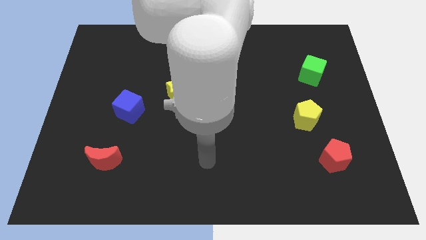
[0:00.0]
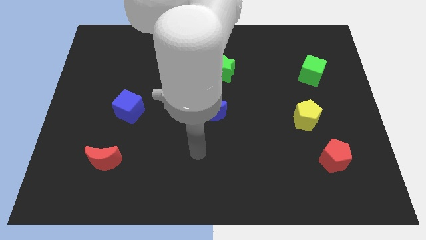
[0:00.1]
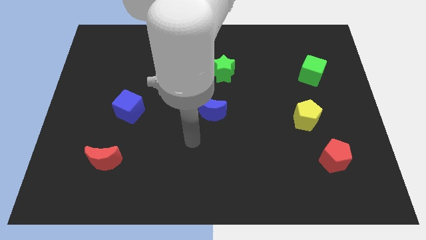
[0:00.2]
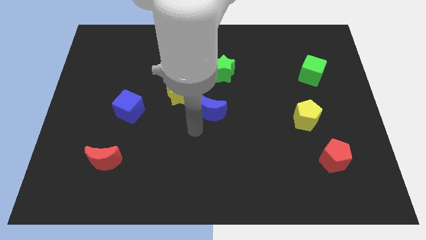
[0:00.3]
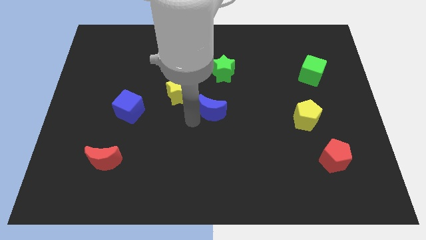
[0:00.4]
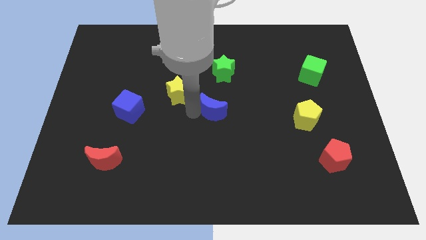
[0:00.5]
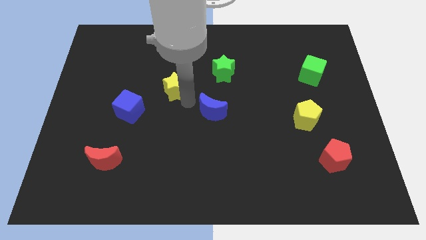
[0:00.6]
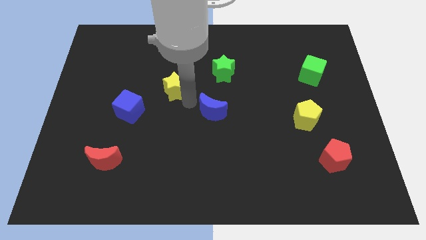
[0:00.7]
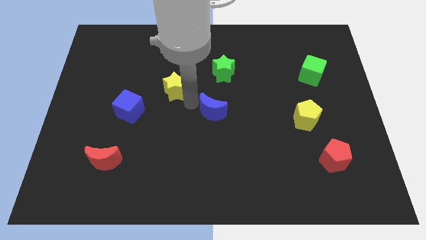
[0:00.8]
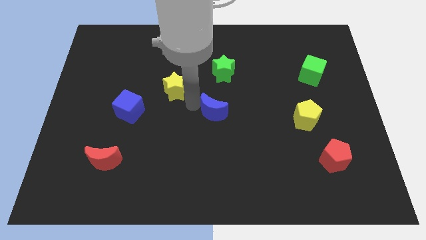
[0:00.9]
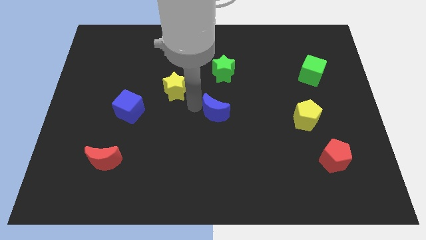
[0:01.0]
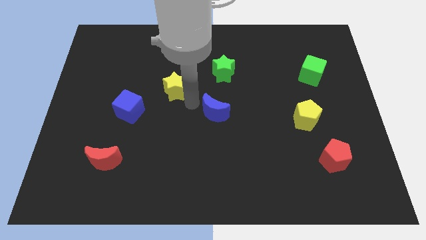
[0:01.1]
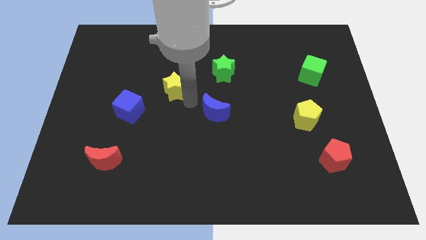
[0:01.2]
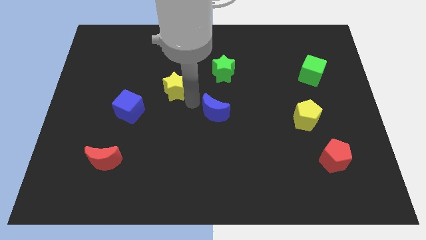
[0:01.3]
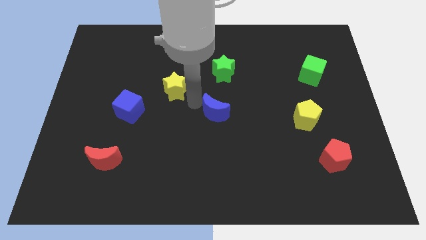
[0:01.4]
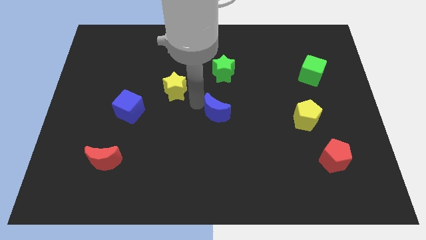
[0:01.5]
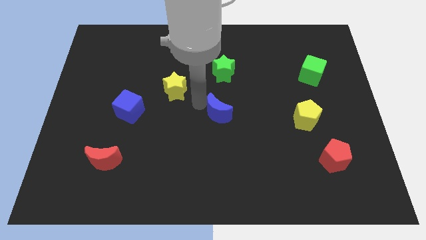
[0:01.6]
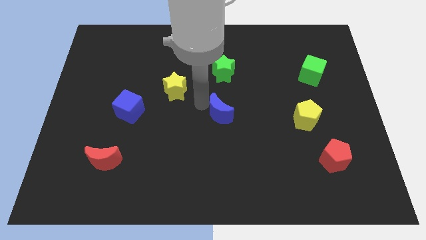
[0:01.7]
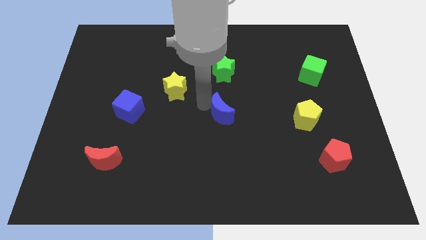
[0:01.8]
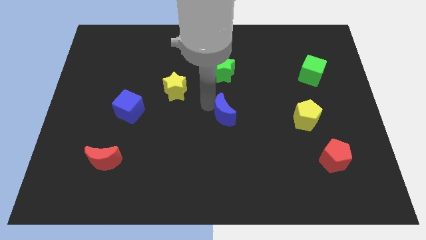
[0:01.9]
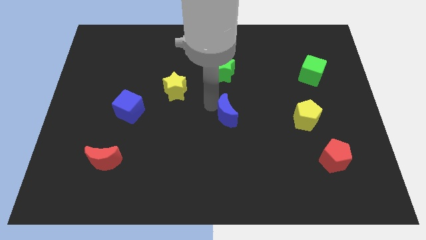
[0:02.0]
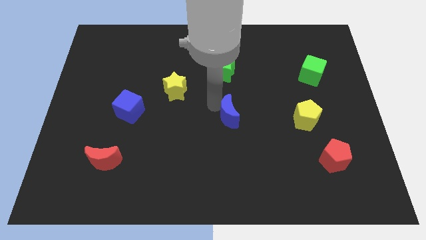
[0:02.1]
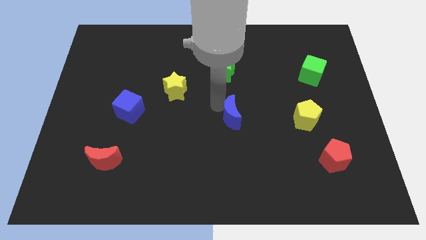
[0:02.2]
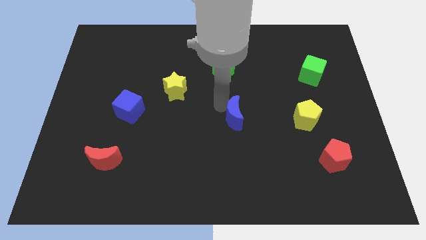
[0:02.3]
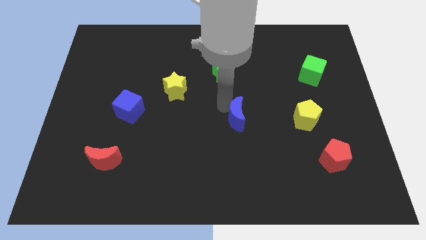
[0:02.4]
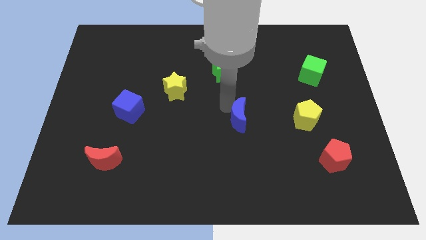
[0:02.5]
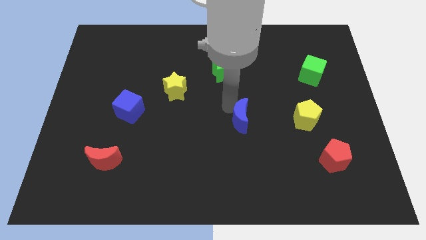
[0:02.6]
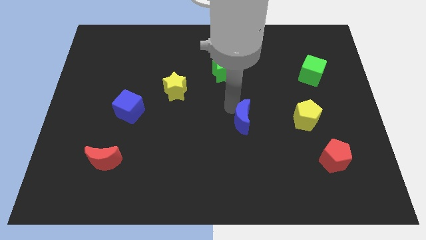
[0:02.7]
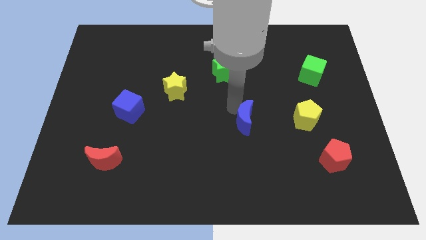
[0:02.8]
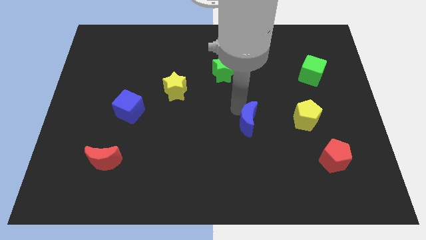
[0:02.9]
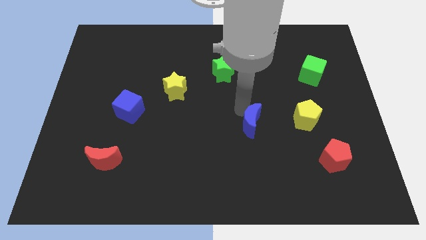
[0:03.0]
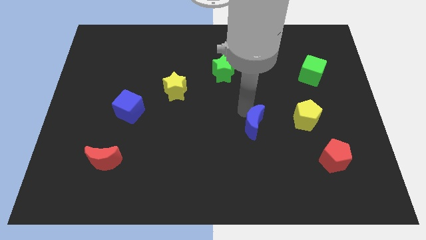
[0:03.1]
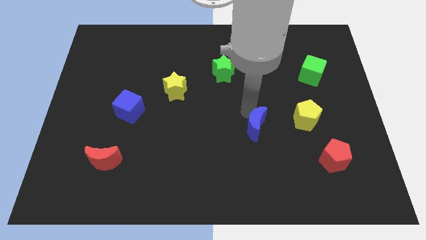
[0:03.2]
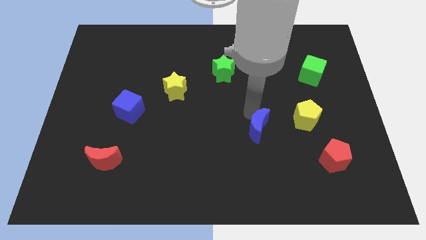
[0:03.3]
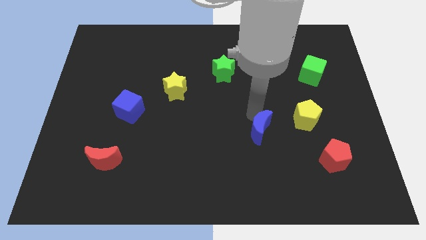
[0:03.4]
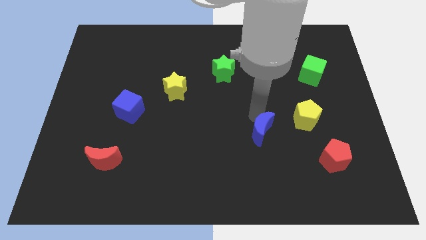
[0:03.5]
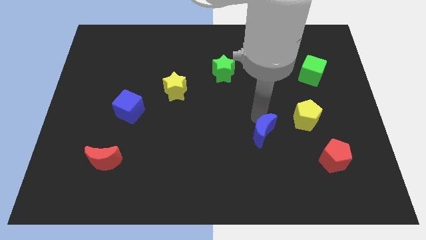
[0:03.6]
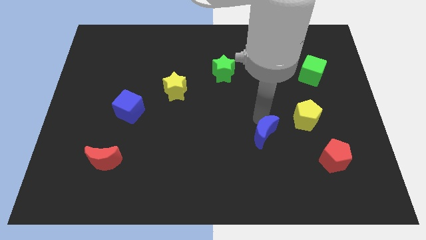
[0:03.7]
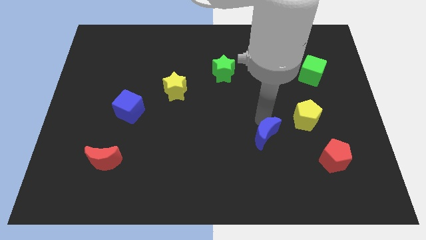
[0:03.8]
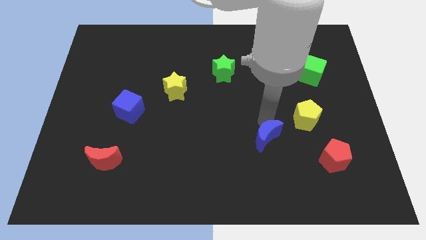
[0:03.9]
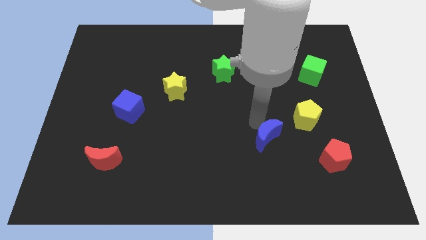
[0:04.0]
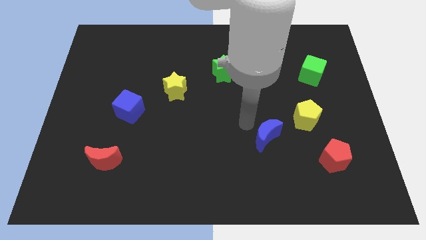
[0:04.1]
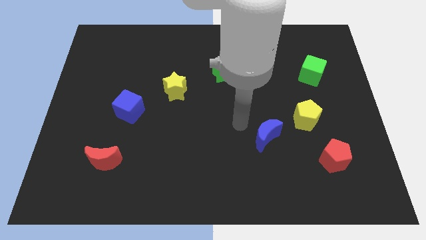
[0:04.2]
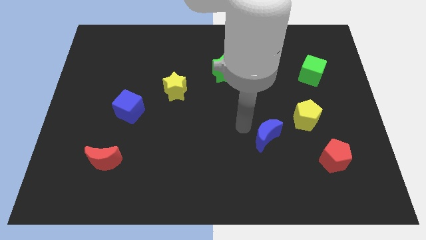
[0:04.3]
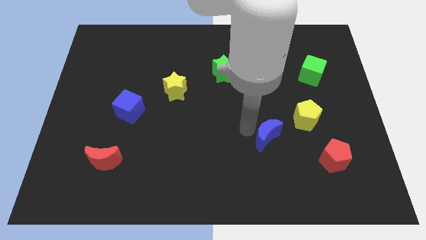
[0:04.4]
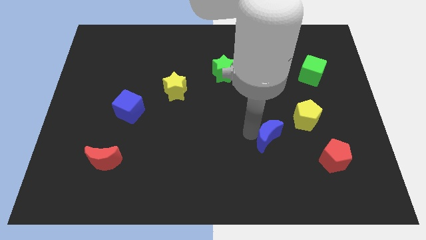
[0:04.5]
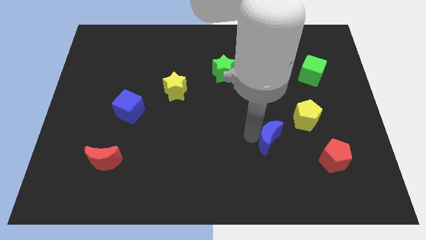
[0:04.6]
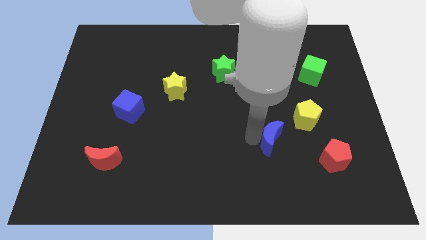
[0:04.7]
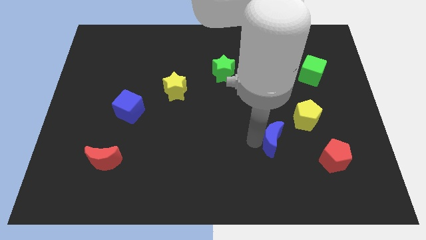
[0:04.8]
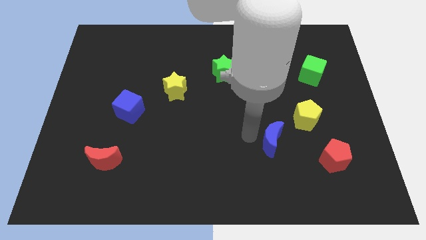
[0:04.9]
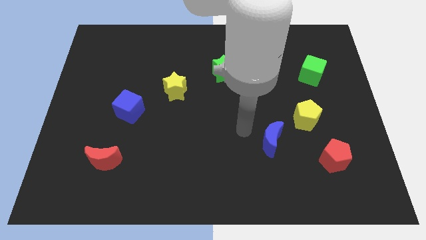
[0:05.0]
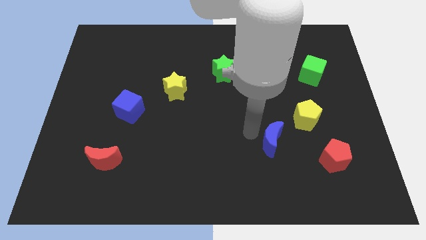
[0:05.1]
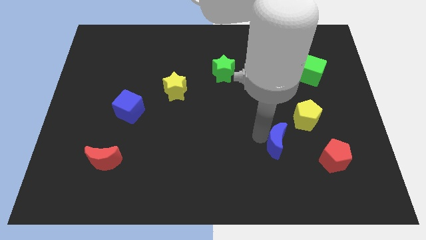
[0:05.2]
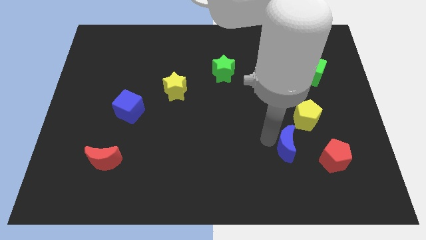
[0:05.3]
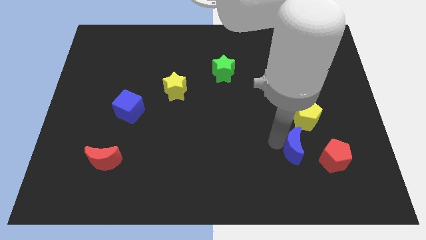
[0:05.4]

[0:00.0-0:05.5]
move the blue moon to the bottom side of the yellow pentagon
